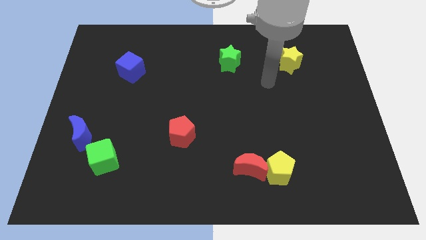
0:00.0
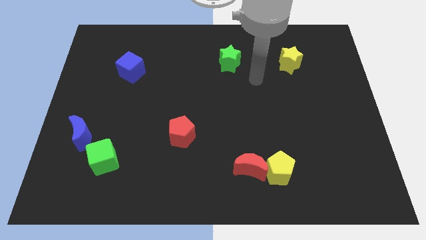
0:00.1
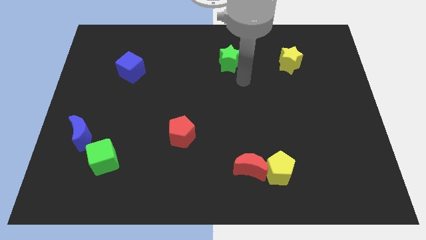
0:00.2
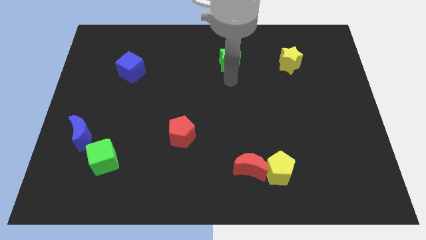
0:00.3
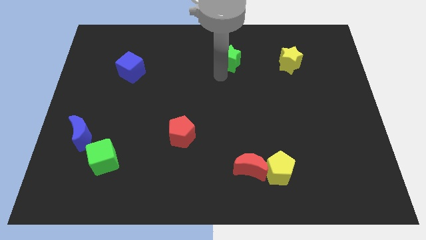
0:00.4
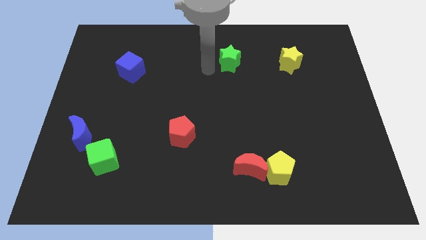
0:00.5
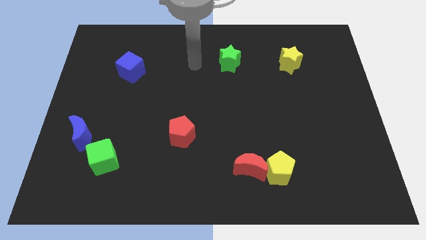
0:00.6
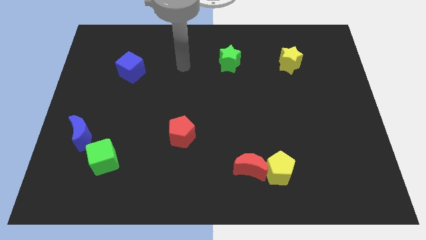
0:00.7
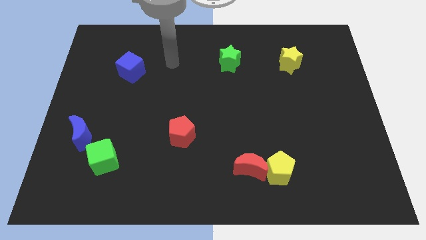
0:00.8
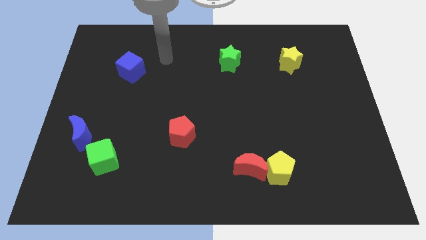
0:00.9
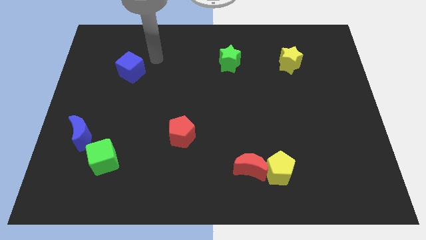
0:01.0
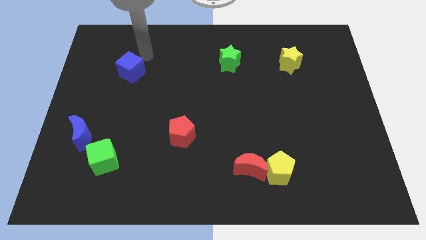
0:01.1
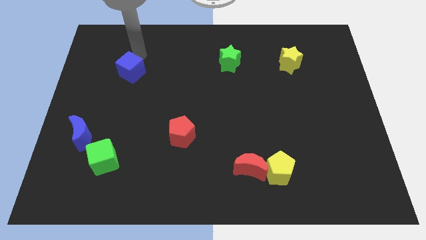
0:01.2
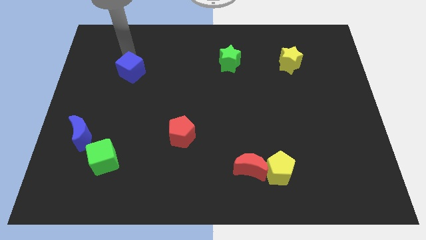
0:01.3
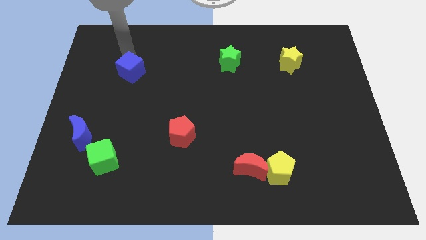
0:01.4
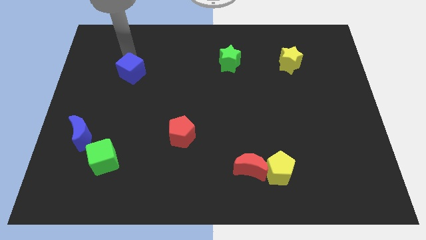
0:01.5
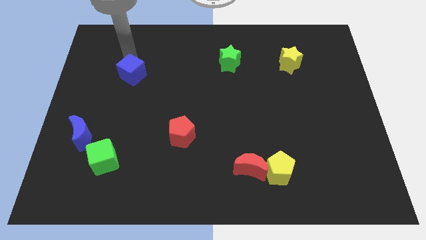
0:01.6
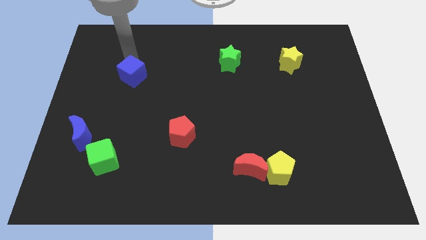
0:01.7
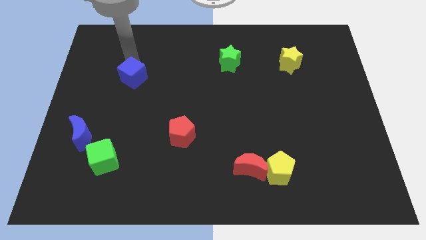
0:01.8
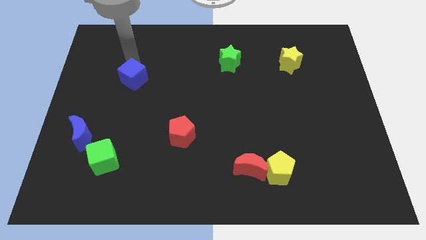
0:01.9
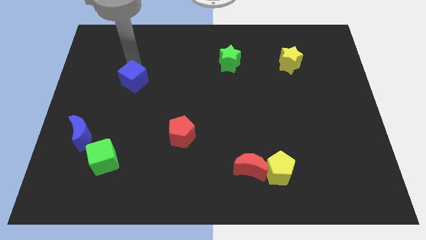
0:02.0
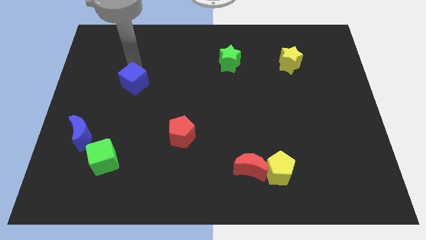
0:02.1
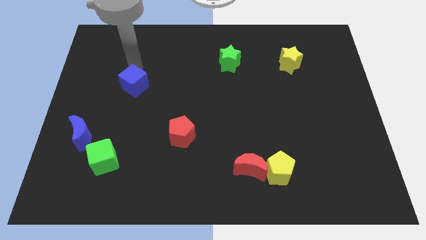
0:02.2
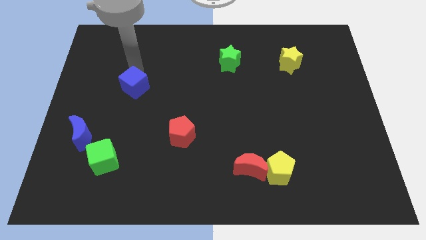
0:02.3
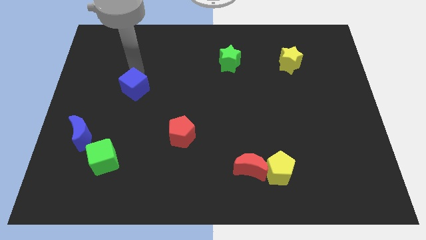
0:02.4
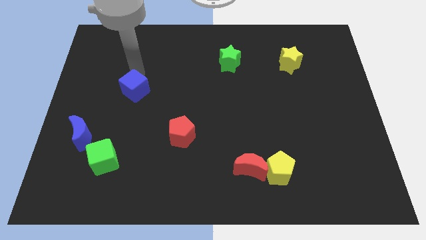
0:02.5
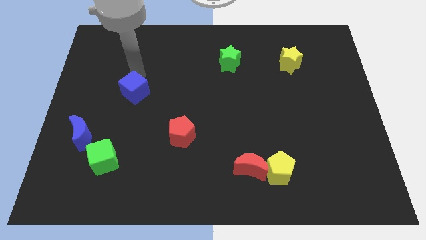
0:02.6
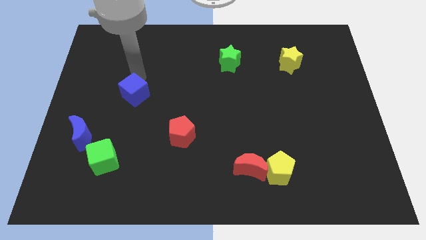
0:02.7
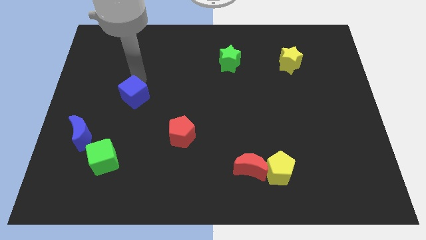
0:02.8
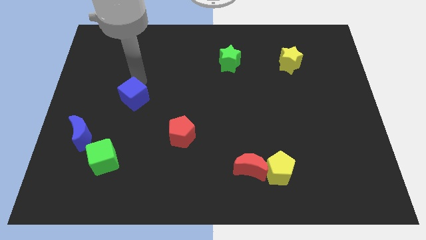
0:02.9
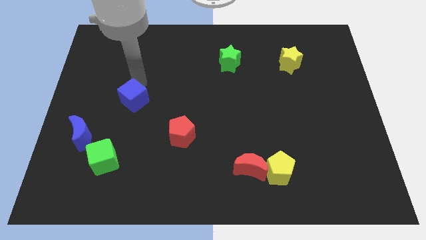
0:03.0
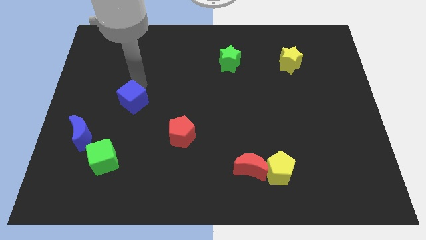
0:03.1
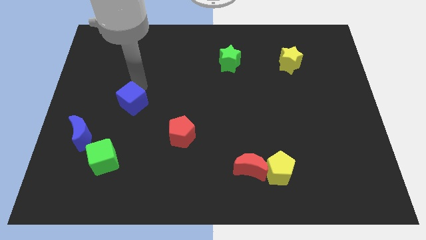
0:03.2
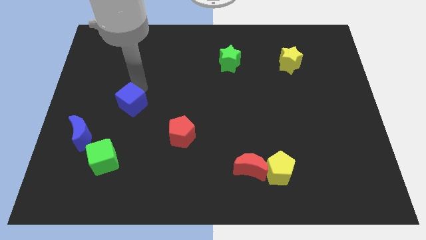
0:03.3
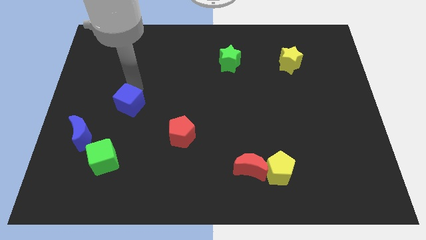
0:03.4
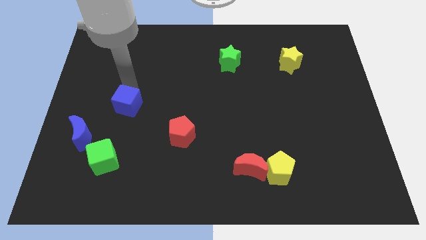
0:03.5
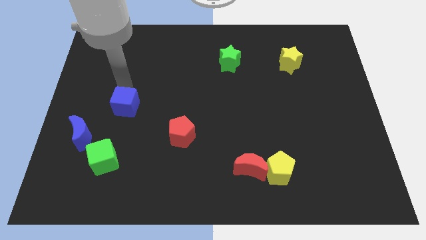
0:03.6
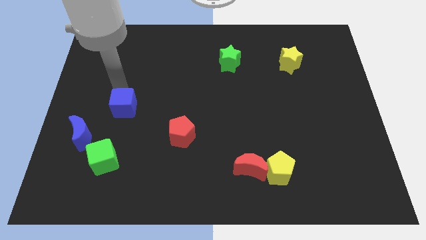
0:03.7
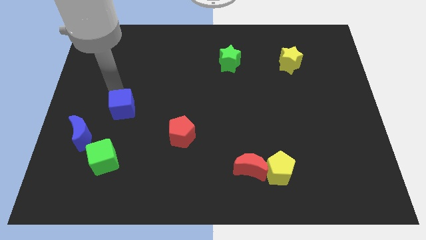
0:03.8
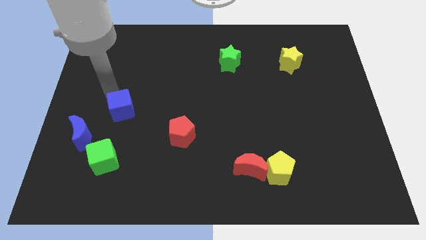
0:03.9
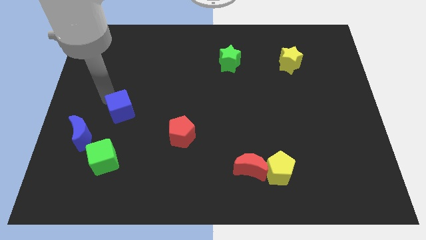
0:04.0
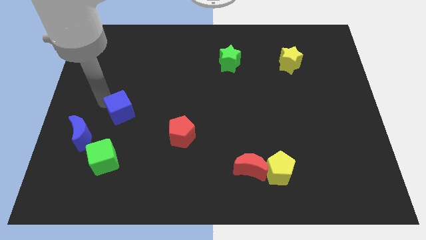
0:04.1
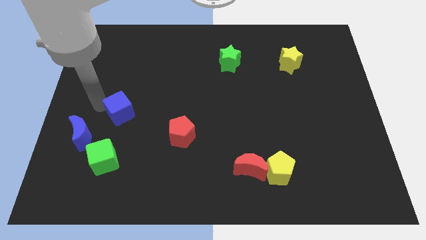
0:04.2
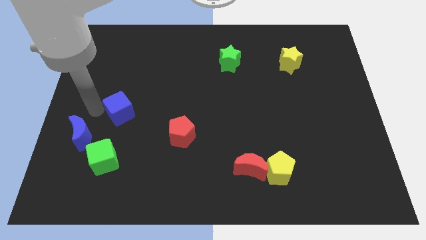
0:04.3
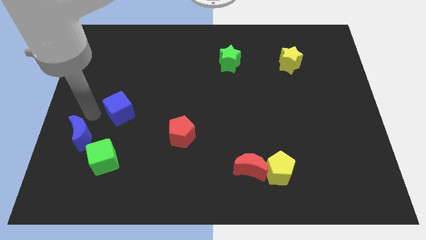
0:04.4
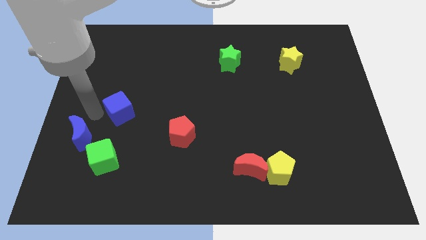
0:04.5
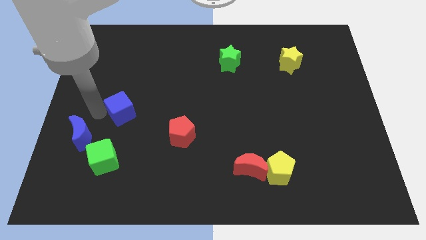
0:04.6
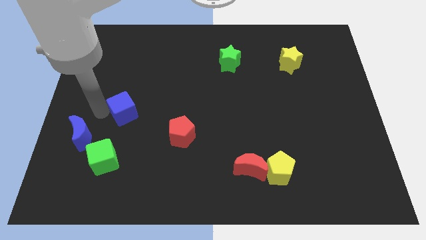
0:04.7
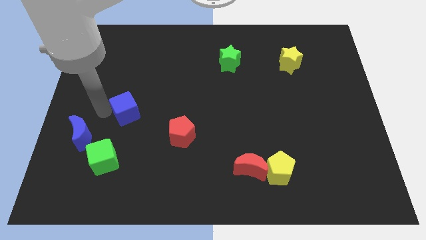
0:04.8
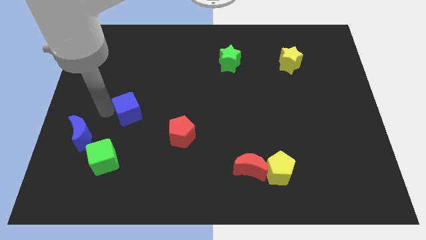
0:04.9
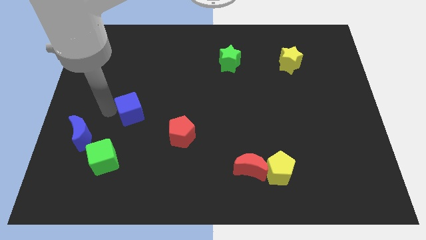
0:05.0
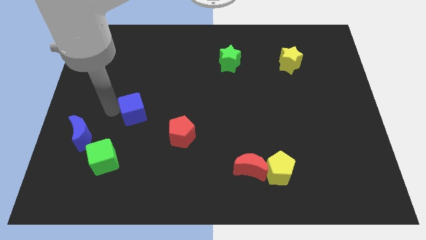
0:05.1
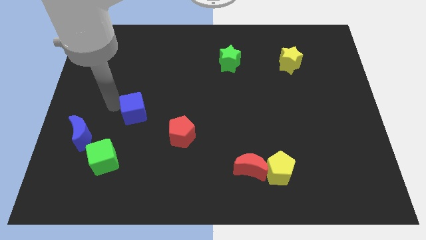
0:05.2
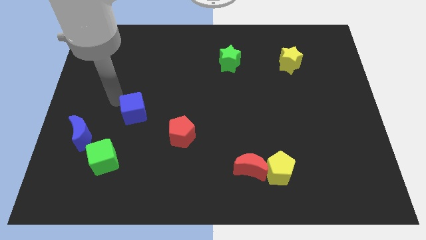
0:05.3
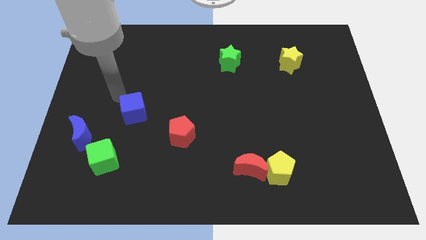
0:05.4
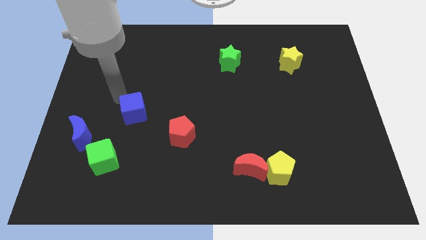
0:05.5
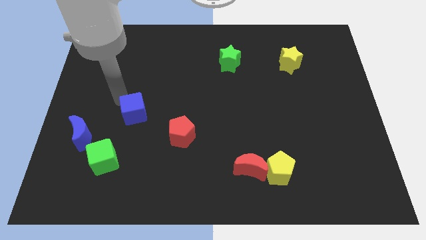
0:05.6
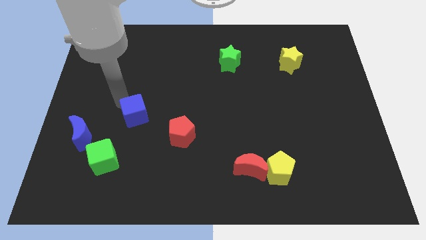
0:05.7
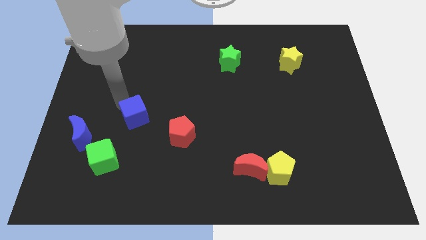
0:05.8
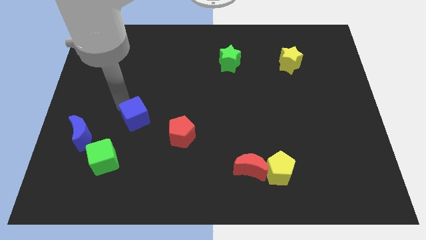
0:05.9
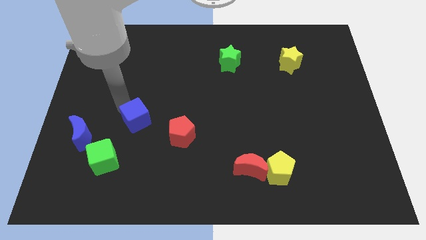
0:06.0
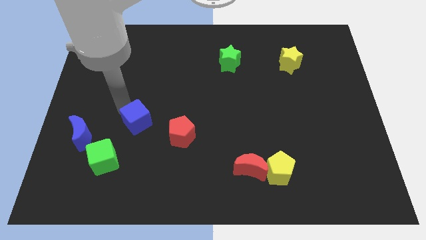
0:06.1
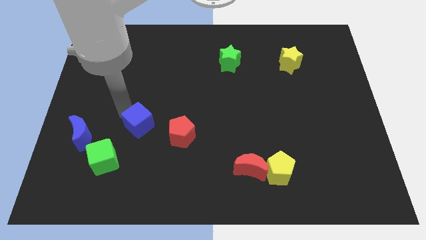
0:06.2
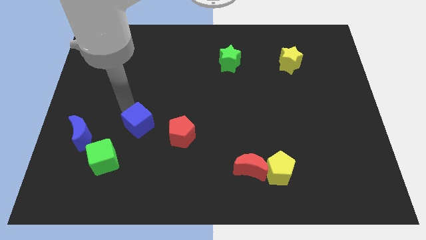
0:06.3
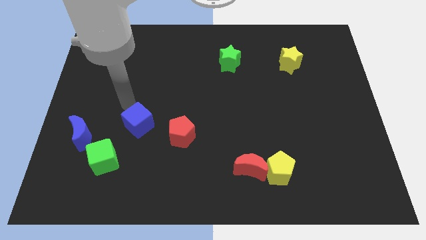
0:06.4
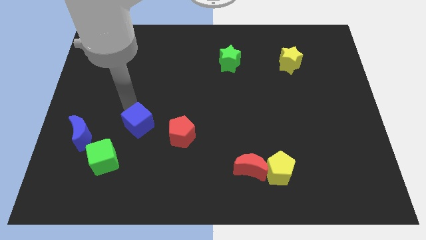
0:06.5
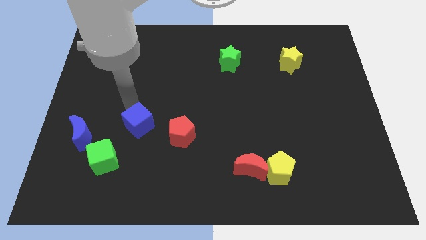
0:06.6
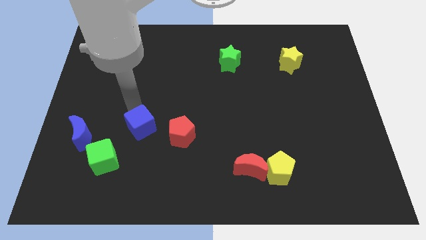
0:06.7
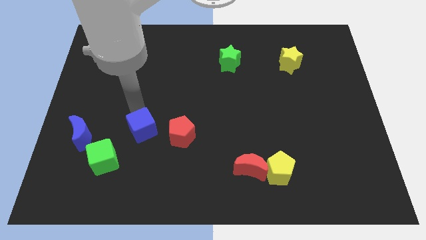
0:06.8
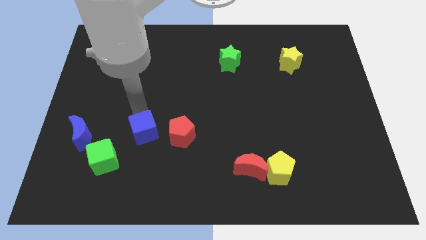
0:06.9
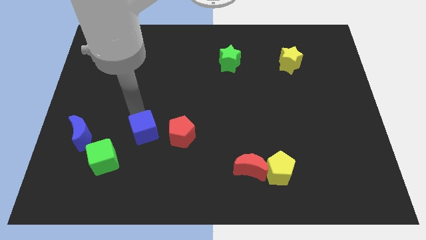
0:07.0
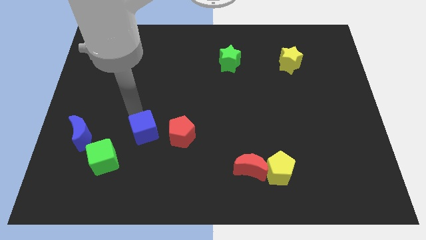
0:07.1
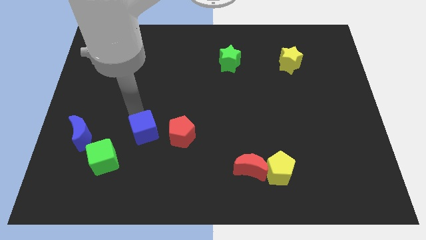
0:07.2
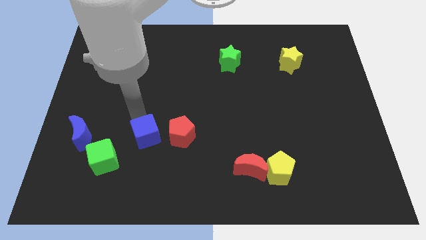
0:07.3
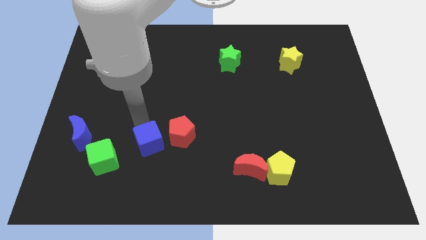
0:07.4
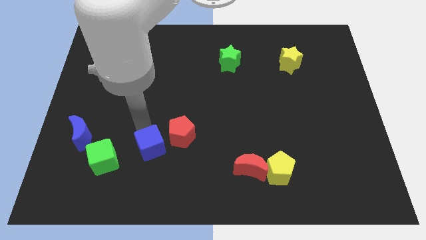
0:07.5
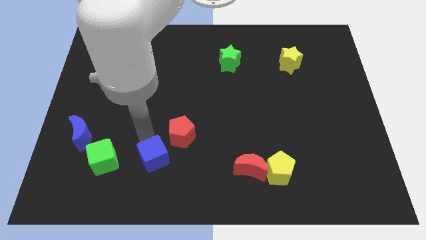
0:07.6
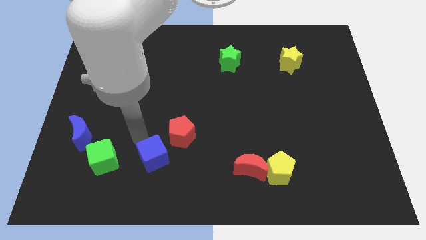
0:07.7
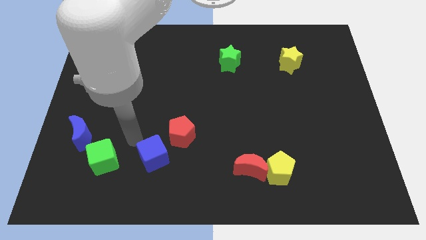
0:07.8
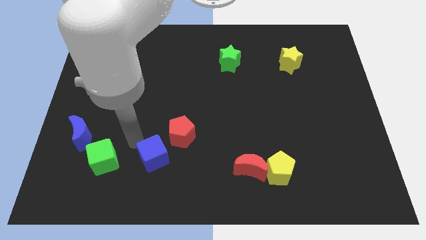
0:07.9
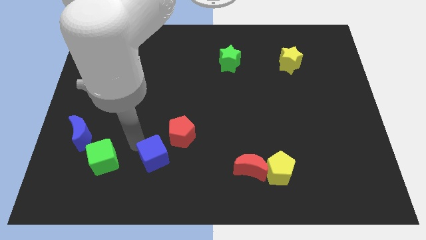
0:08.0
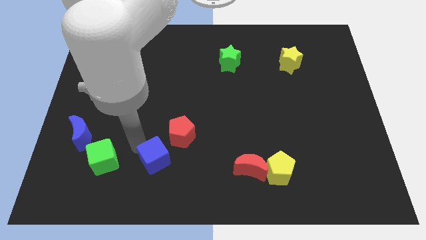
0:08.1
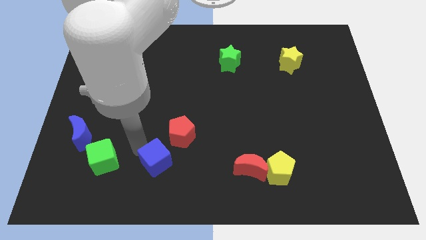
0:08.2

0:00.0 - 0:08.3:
put the blue cube to the bottom of the red pentagon
